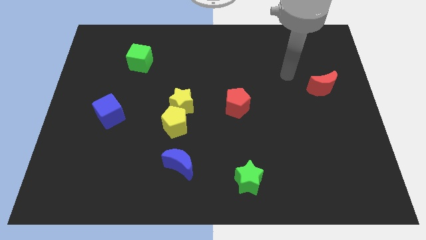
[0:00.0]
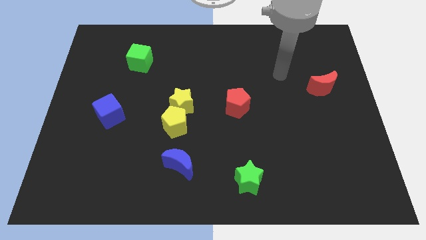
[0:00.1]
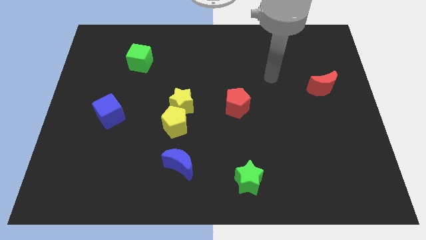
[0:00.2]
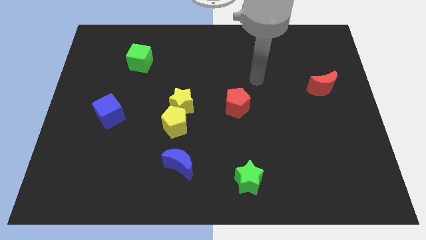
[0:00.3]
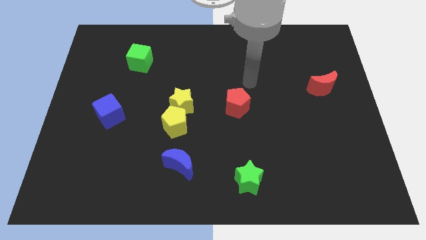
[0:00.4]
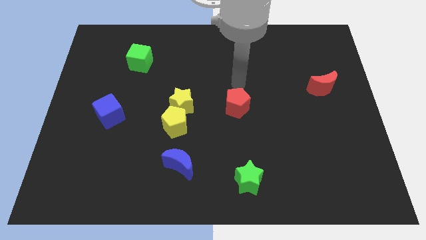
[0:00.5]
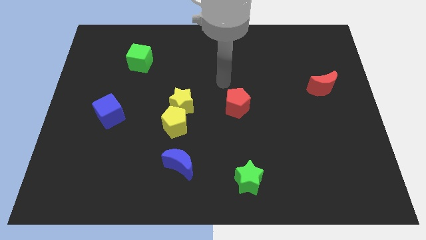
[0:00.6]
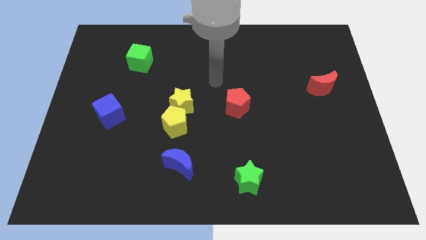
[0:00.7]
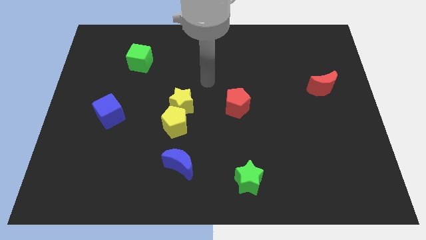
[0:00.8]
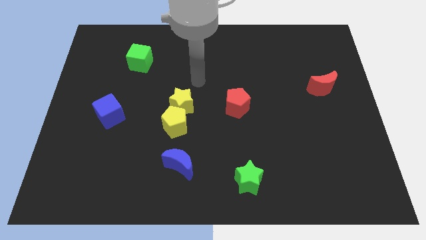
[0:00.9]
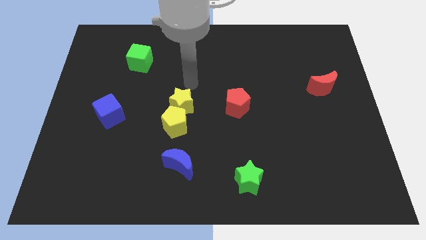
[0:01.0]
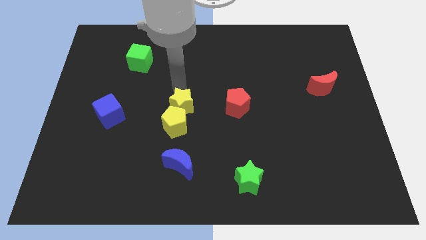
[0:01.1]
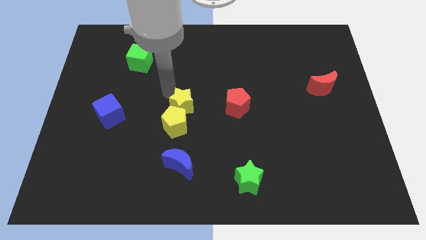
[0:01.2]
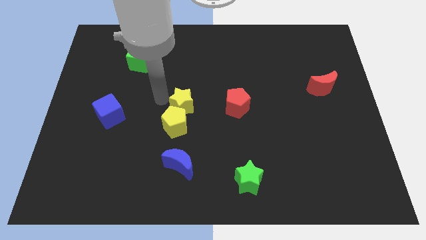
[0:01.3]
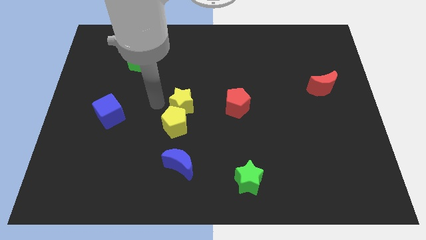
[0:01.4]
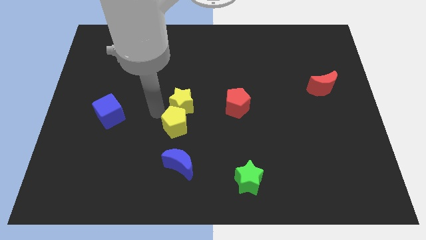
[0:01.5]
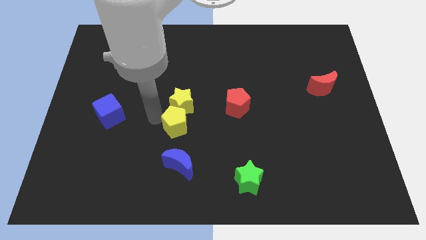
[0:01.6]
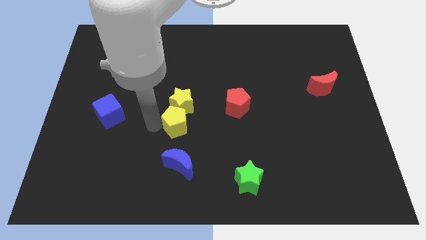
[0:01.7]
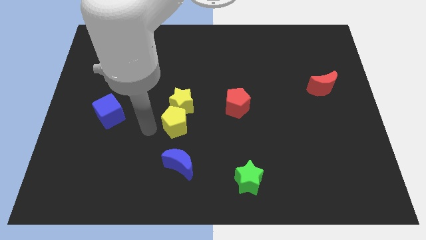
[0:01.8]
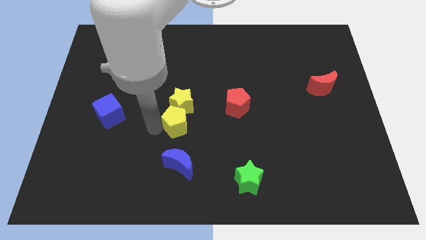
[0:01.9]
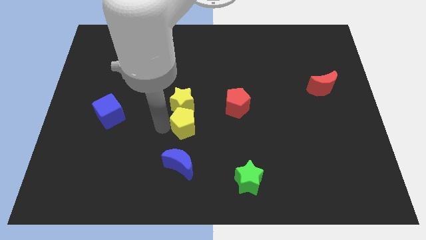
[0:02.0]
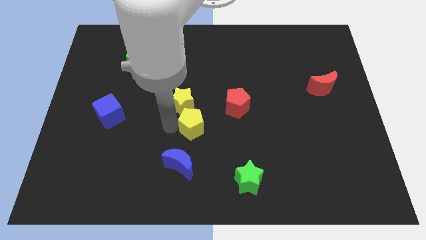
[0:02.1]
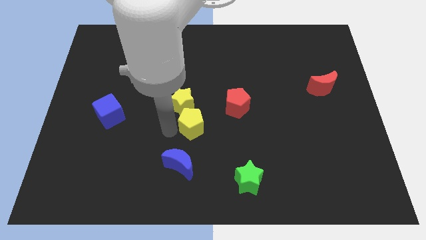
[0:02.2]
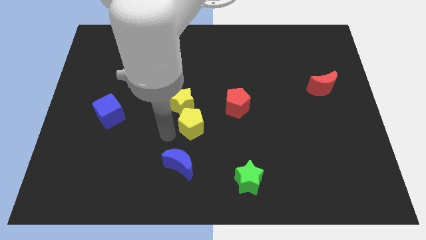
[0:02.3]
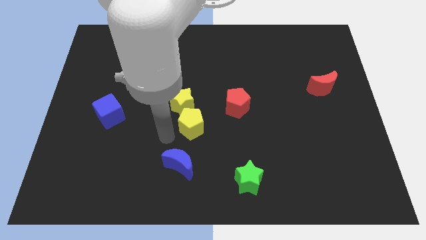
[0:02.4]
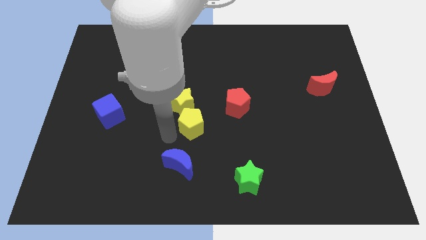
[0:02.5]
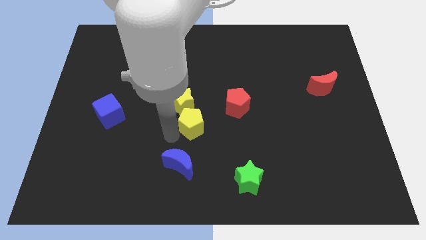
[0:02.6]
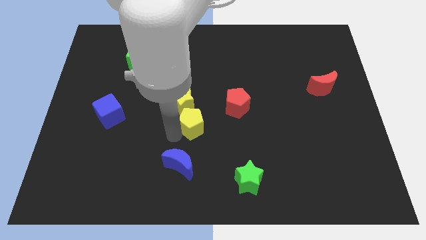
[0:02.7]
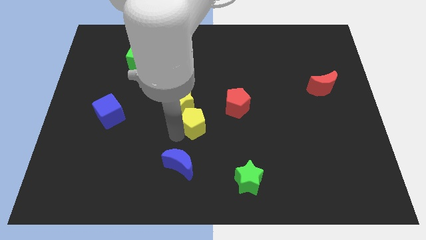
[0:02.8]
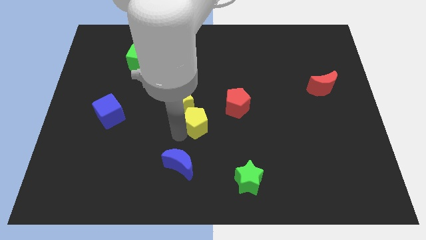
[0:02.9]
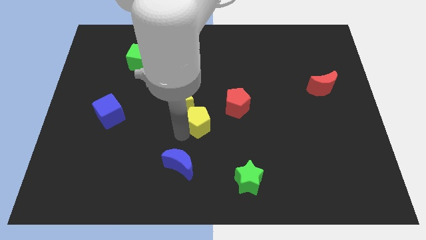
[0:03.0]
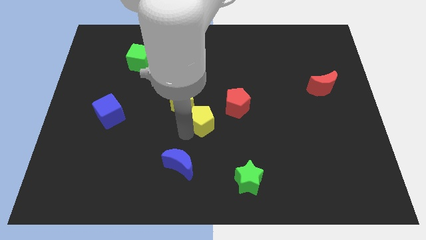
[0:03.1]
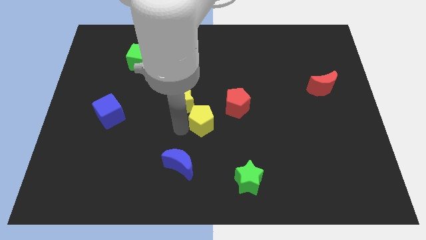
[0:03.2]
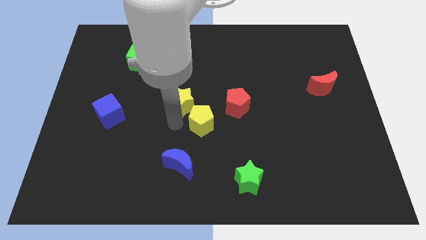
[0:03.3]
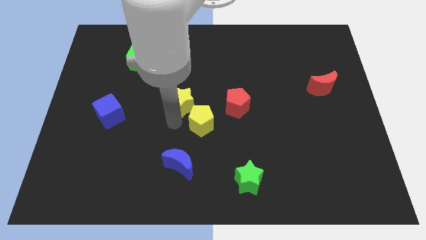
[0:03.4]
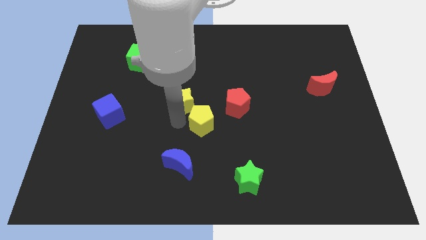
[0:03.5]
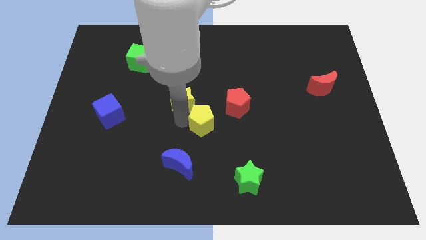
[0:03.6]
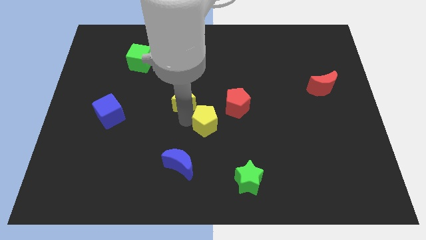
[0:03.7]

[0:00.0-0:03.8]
push the yellow pentagon right a little bit

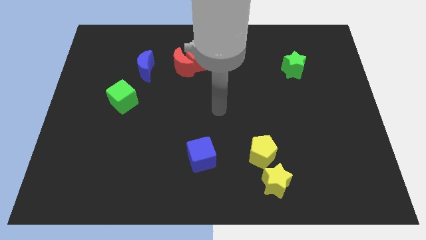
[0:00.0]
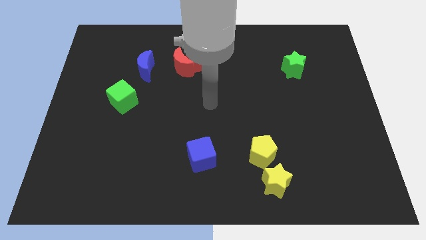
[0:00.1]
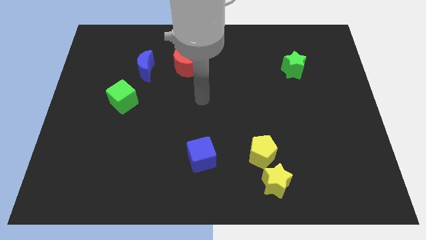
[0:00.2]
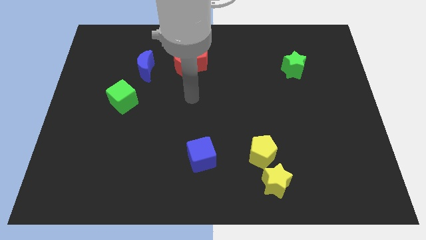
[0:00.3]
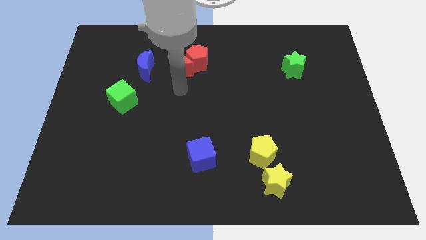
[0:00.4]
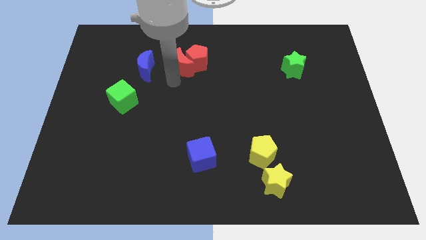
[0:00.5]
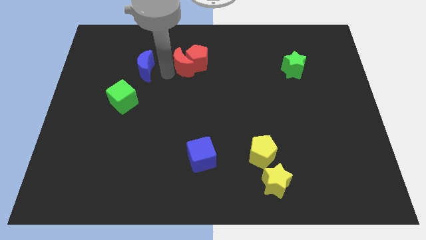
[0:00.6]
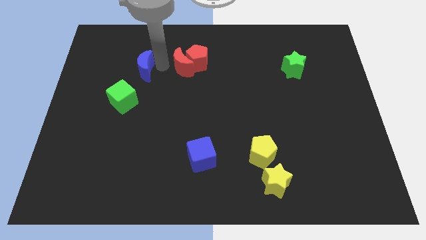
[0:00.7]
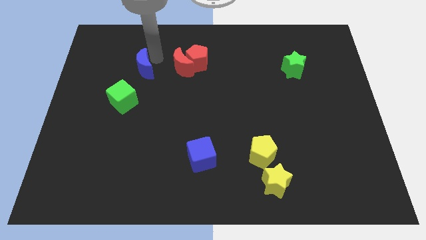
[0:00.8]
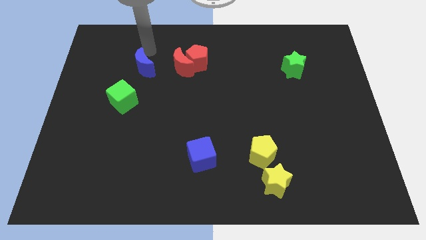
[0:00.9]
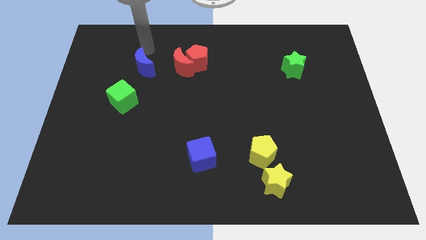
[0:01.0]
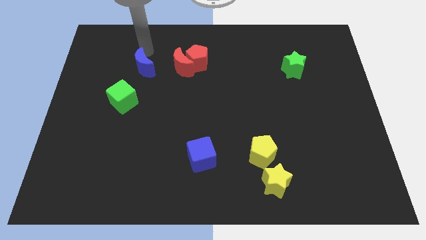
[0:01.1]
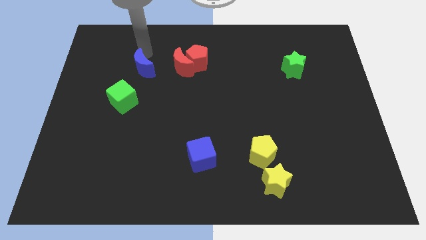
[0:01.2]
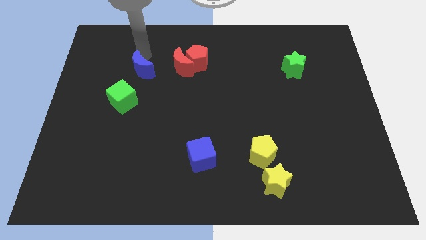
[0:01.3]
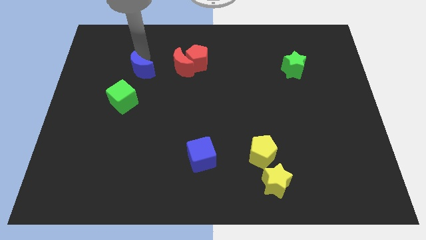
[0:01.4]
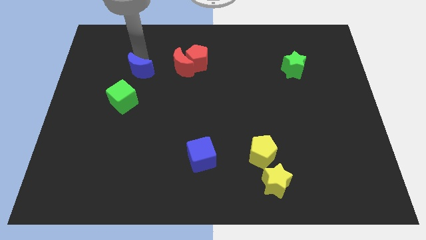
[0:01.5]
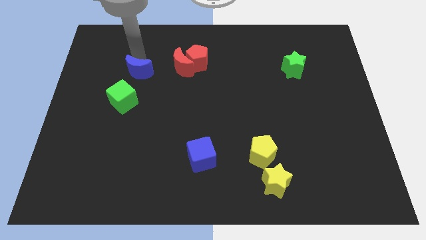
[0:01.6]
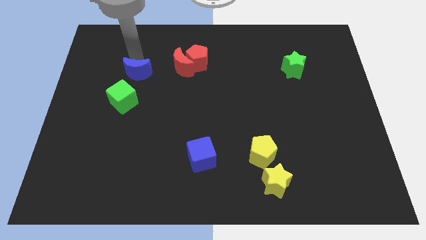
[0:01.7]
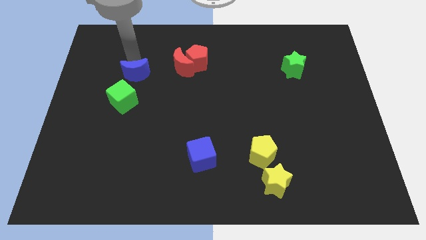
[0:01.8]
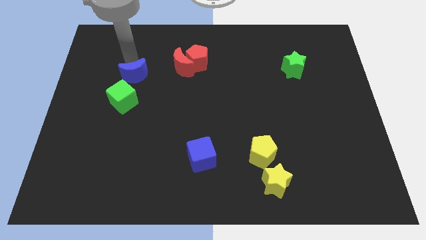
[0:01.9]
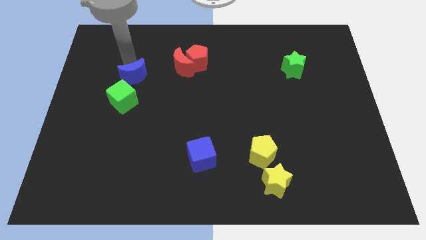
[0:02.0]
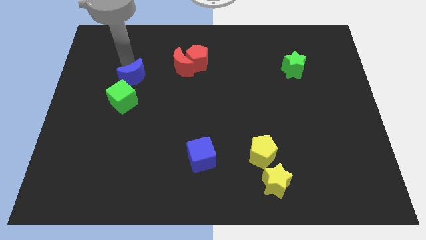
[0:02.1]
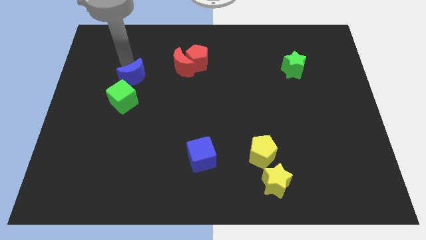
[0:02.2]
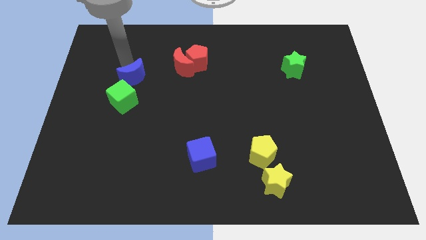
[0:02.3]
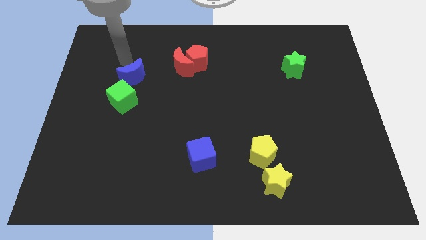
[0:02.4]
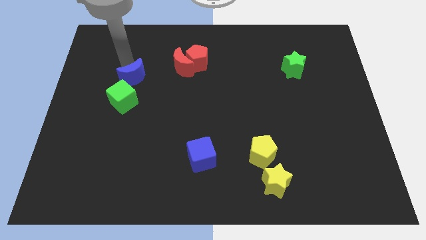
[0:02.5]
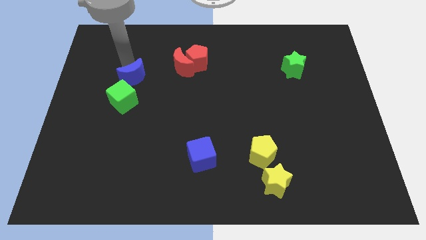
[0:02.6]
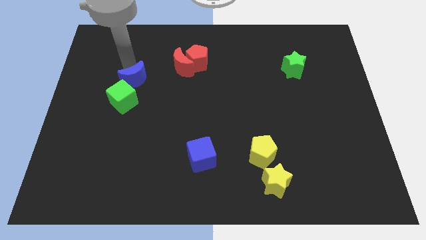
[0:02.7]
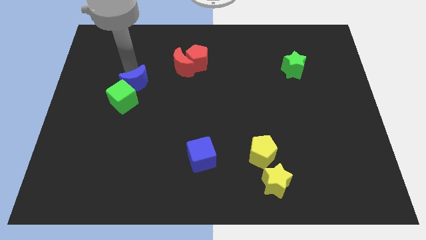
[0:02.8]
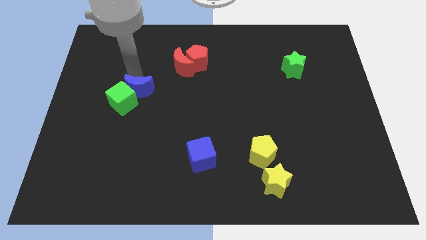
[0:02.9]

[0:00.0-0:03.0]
slightly slide the blue moon downwards

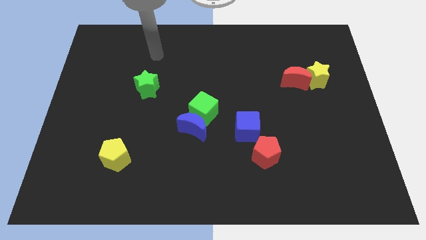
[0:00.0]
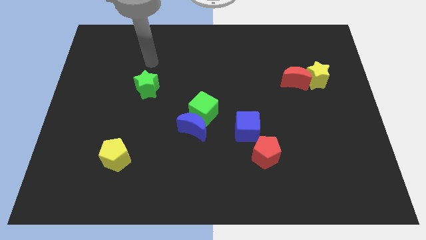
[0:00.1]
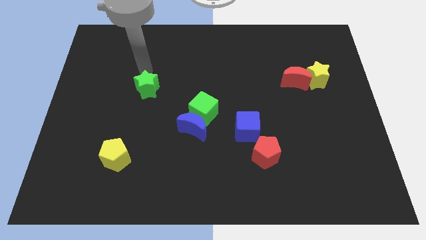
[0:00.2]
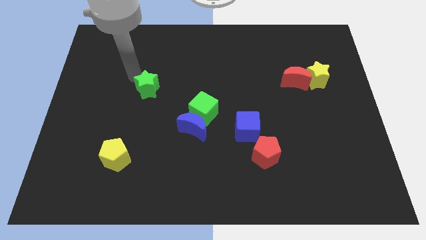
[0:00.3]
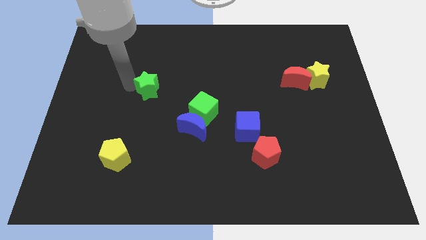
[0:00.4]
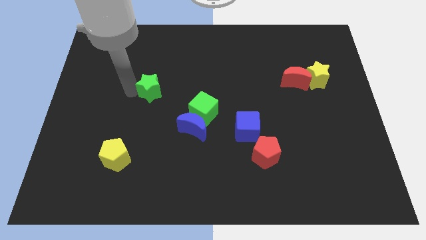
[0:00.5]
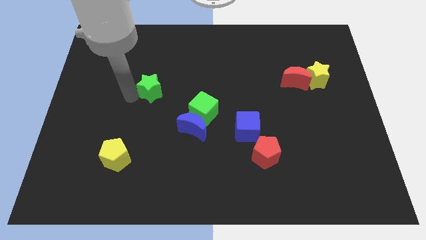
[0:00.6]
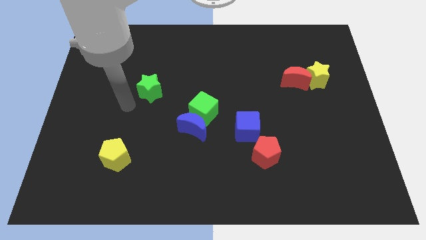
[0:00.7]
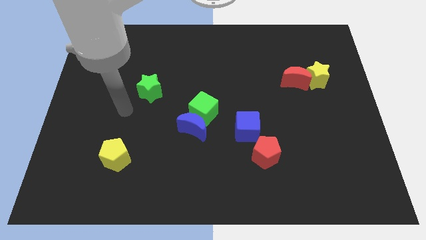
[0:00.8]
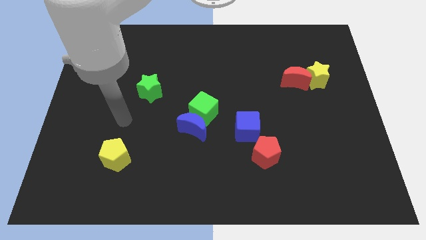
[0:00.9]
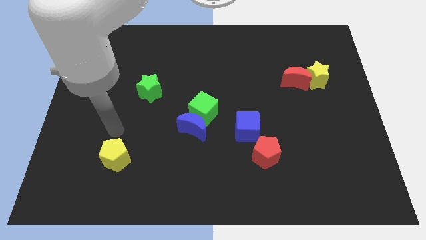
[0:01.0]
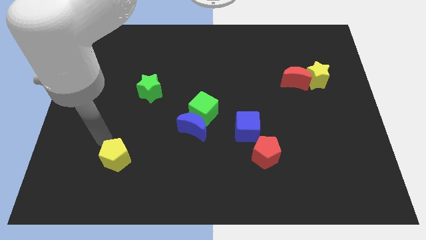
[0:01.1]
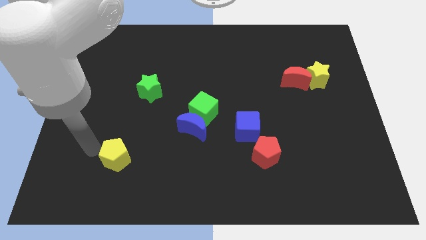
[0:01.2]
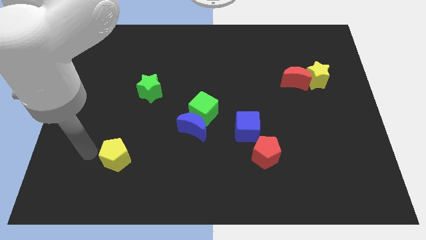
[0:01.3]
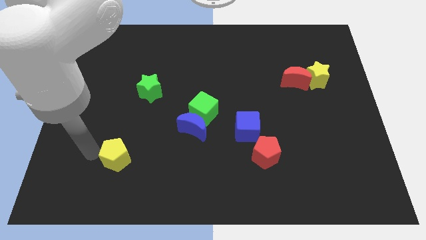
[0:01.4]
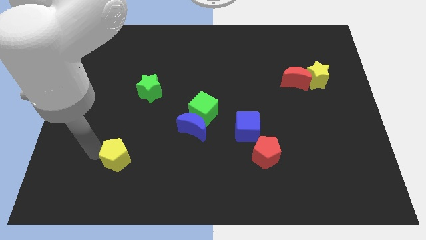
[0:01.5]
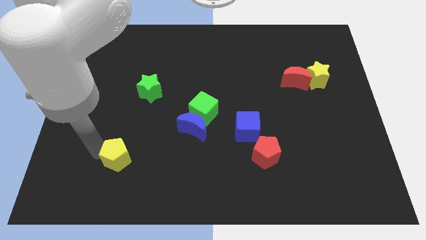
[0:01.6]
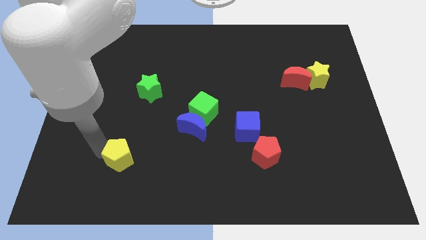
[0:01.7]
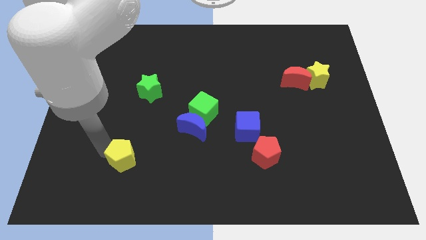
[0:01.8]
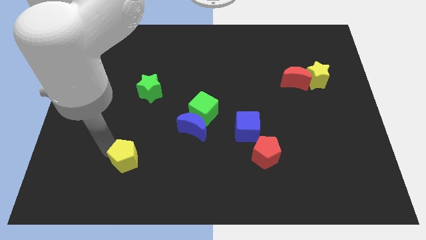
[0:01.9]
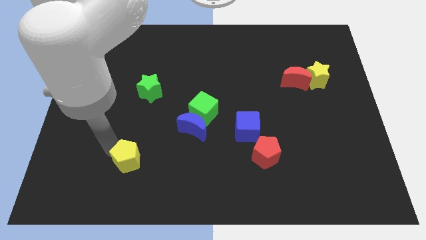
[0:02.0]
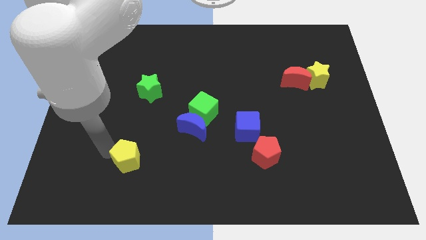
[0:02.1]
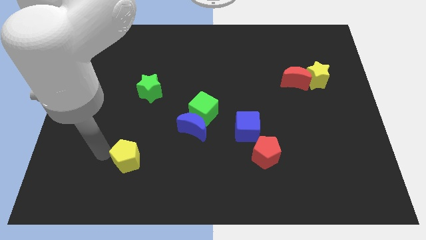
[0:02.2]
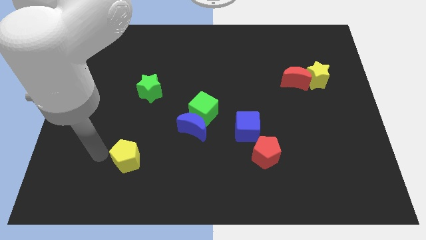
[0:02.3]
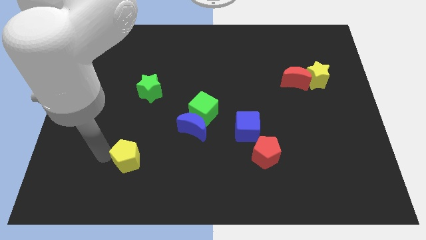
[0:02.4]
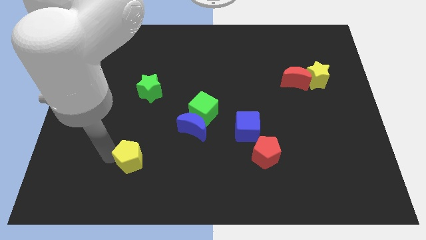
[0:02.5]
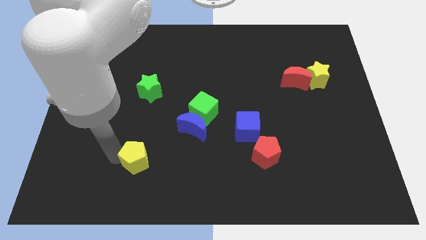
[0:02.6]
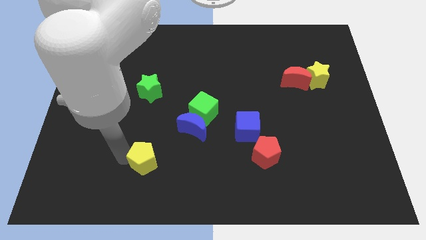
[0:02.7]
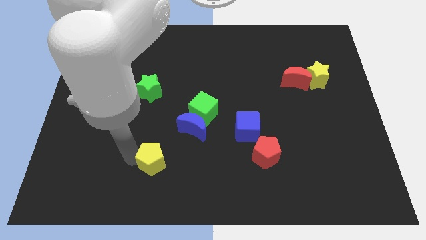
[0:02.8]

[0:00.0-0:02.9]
slightly push the yellow pentagon right
